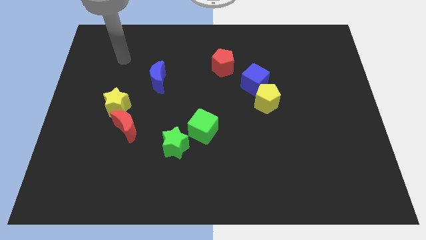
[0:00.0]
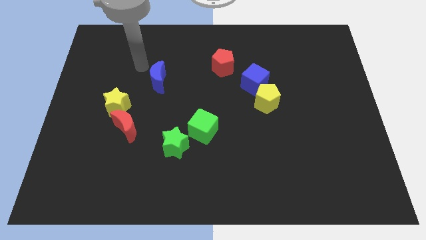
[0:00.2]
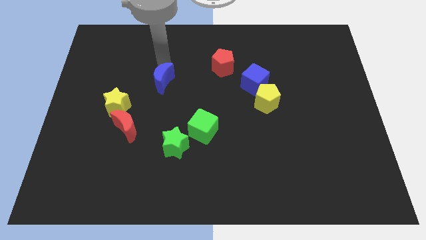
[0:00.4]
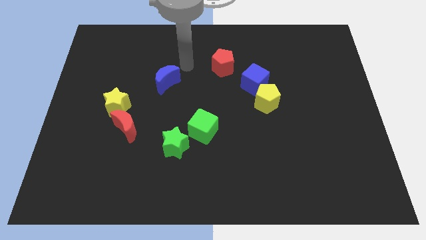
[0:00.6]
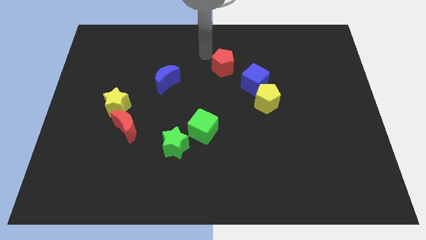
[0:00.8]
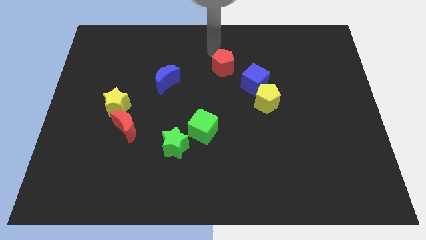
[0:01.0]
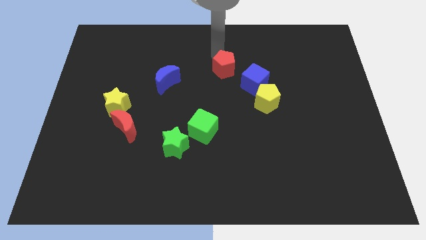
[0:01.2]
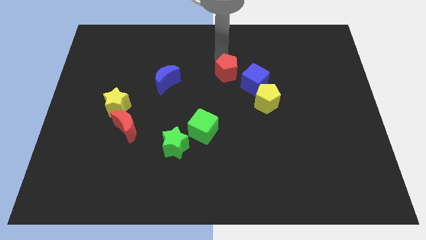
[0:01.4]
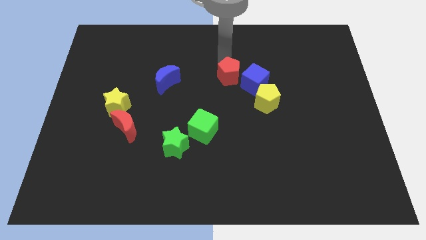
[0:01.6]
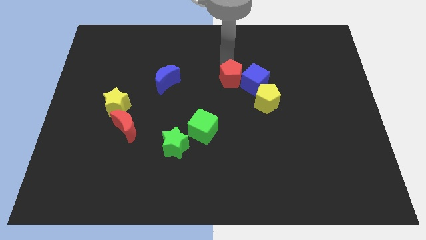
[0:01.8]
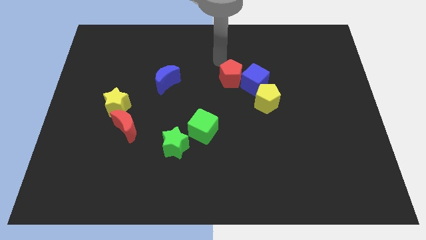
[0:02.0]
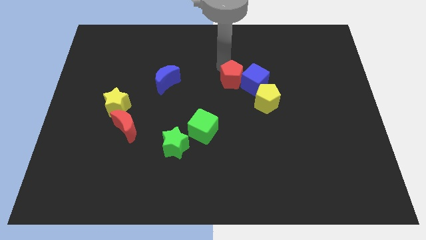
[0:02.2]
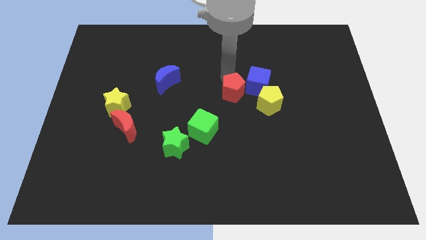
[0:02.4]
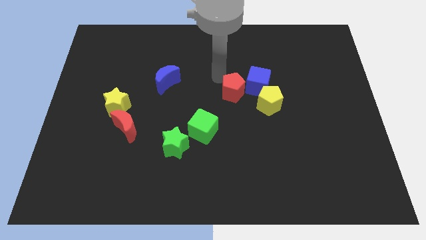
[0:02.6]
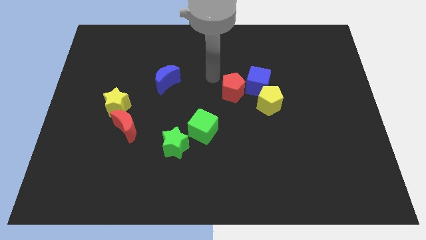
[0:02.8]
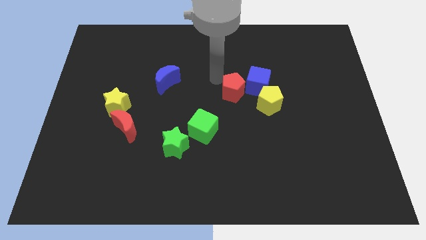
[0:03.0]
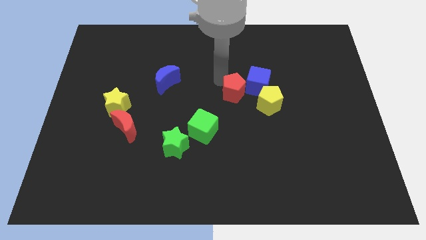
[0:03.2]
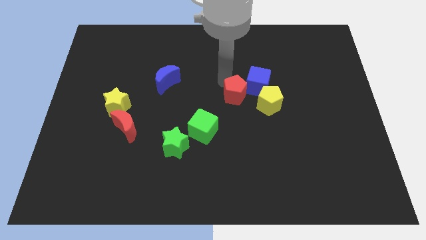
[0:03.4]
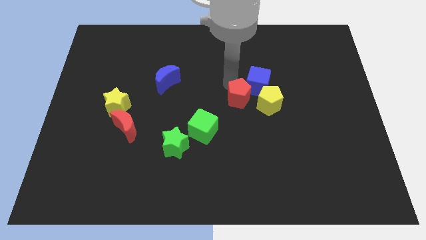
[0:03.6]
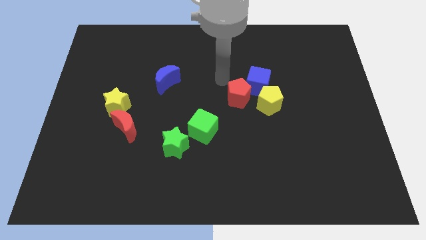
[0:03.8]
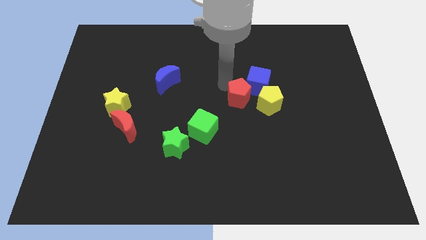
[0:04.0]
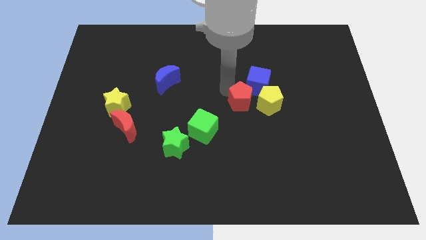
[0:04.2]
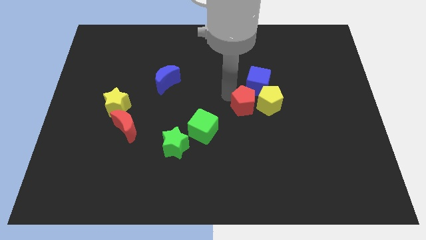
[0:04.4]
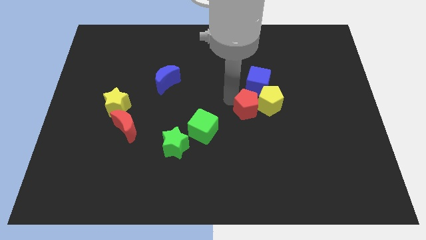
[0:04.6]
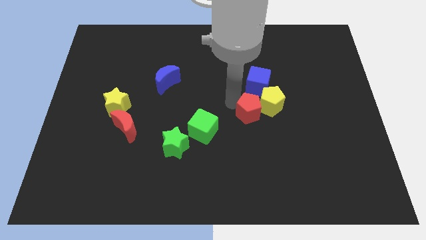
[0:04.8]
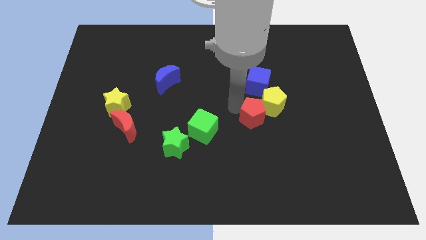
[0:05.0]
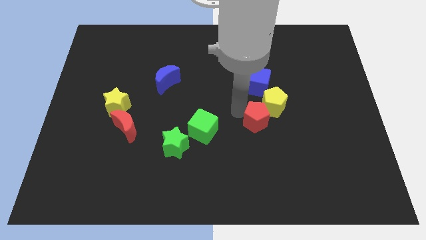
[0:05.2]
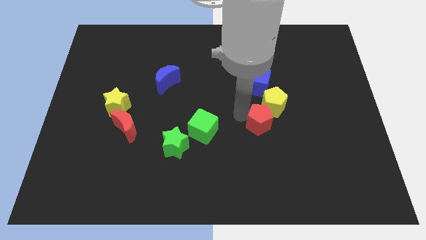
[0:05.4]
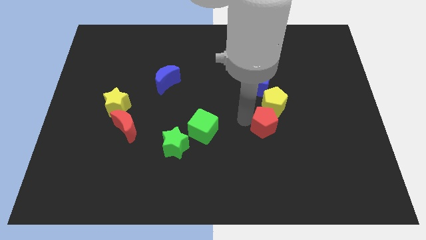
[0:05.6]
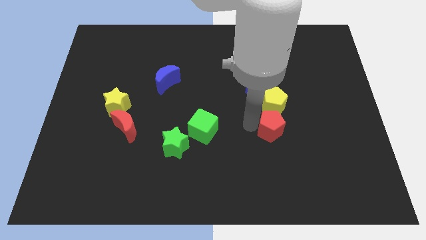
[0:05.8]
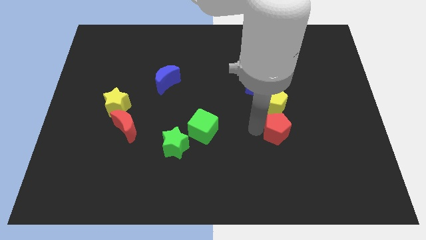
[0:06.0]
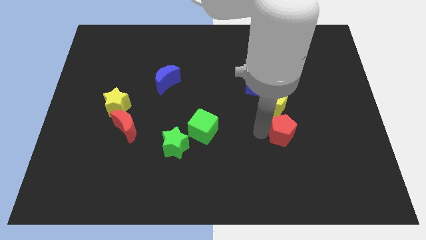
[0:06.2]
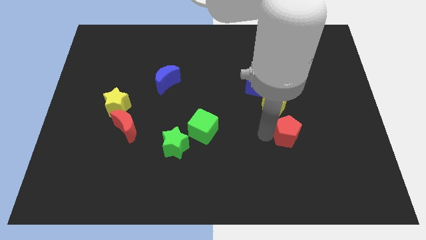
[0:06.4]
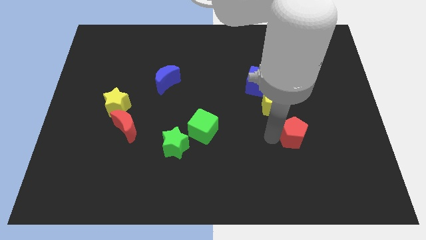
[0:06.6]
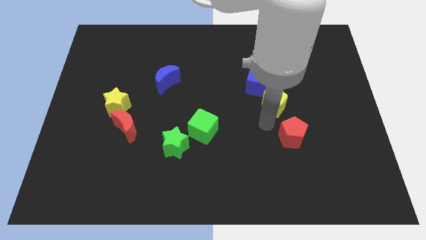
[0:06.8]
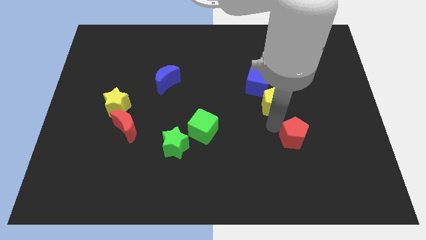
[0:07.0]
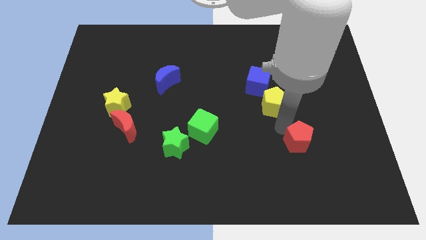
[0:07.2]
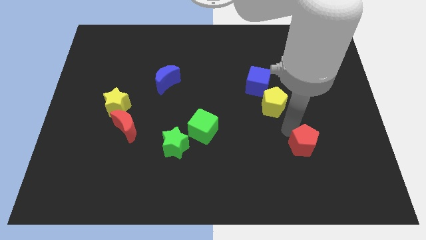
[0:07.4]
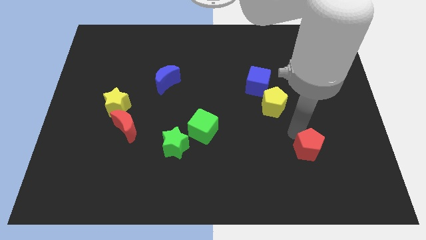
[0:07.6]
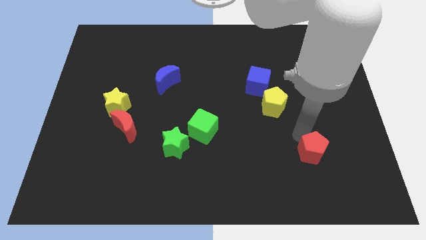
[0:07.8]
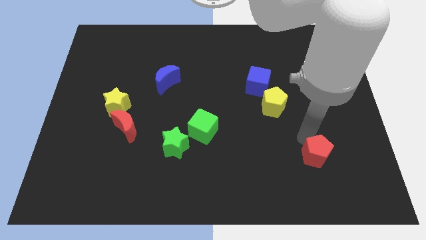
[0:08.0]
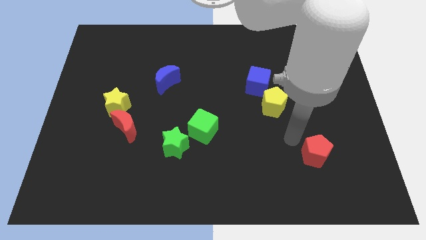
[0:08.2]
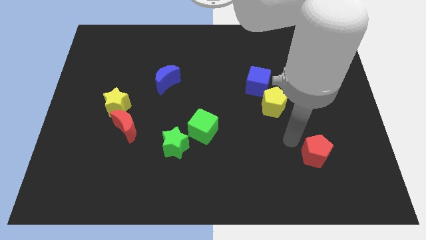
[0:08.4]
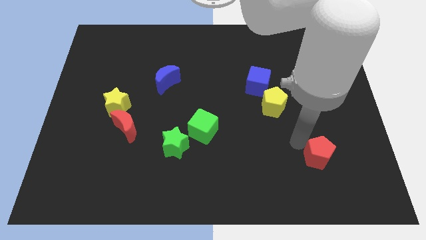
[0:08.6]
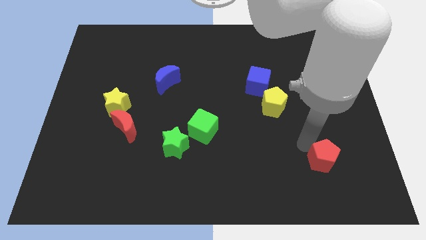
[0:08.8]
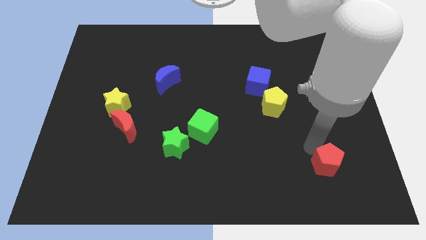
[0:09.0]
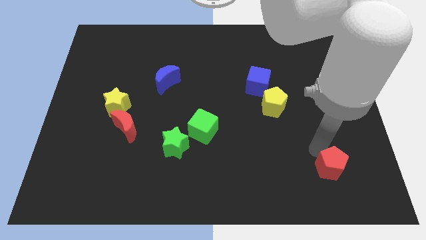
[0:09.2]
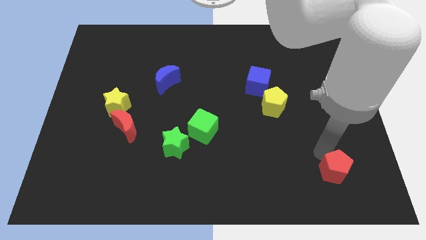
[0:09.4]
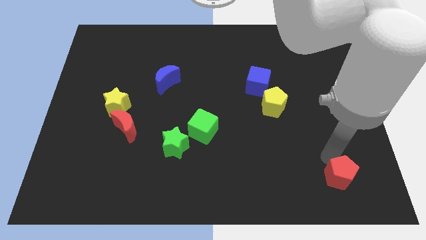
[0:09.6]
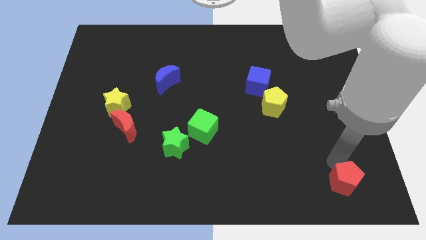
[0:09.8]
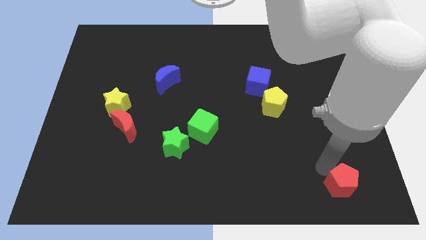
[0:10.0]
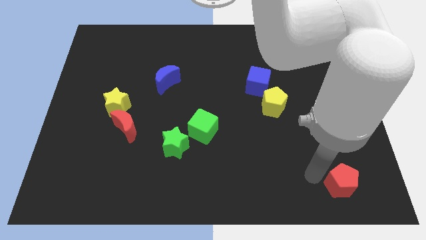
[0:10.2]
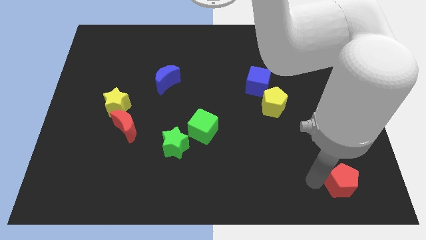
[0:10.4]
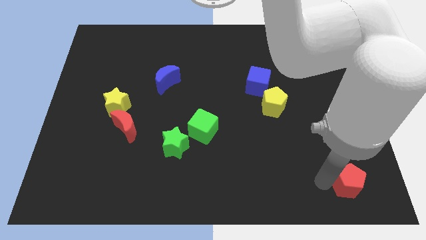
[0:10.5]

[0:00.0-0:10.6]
put the red pentagon to the lower right corner
